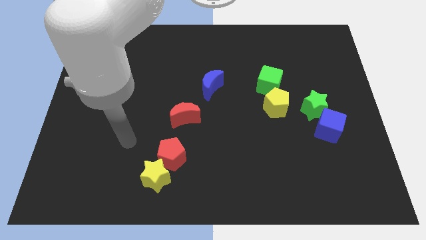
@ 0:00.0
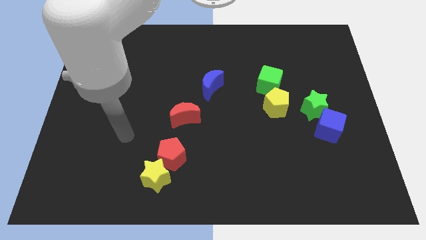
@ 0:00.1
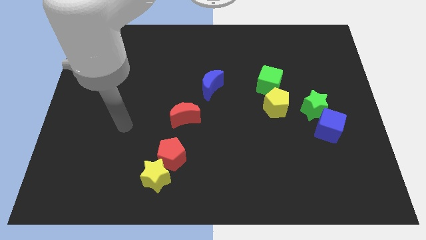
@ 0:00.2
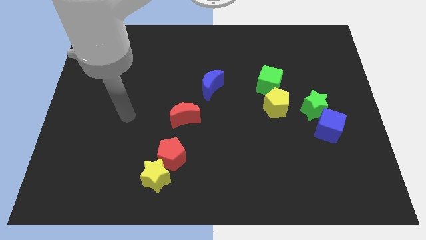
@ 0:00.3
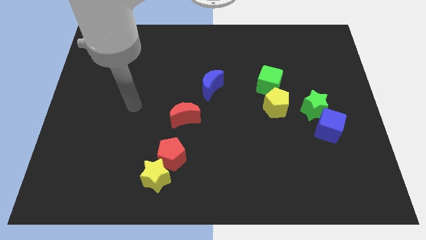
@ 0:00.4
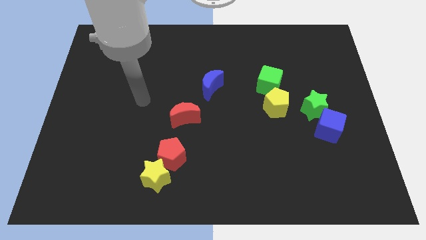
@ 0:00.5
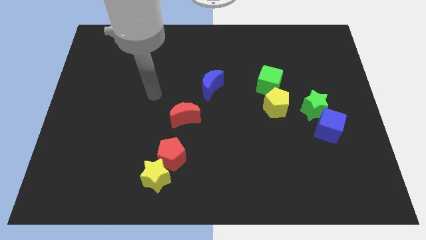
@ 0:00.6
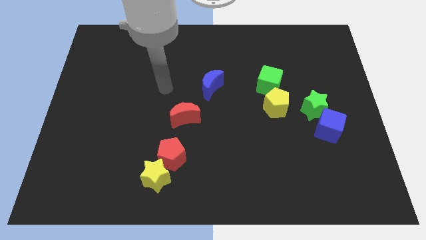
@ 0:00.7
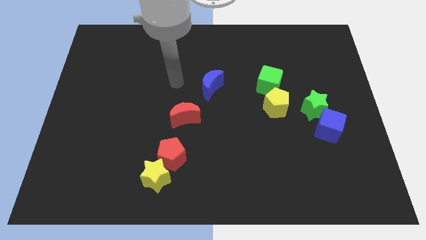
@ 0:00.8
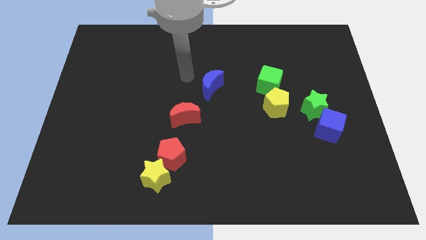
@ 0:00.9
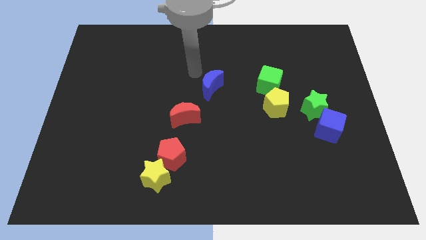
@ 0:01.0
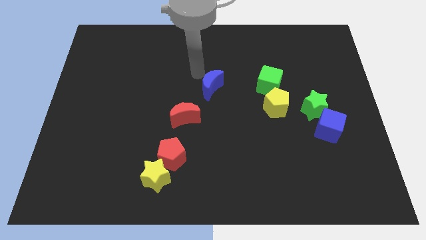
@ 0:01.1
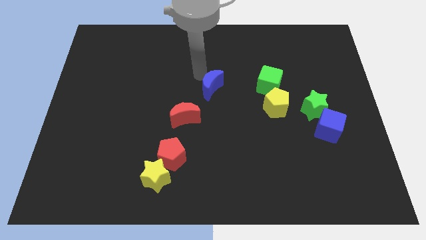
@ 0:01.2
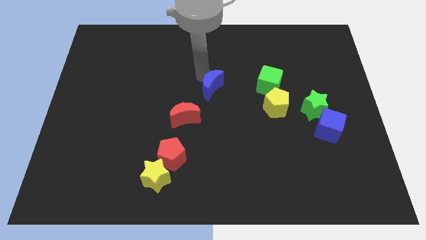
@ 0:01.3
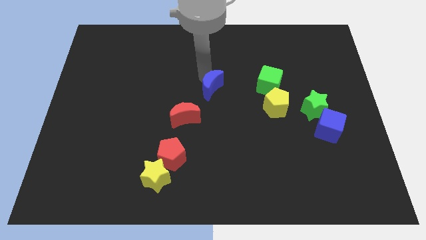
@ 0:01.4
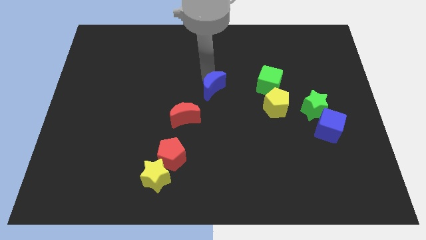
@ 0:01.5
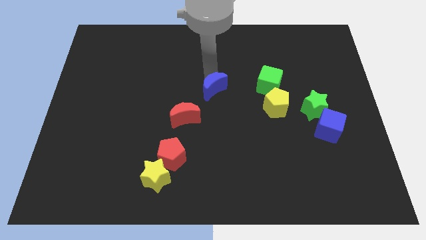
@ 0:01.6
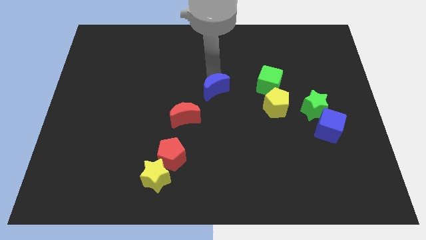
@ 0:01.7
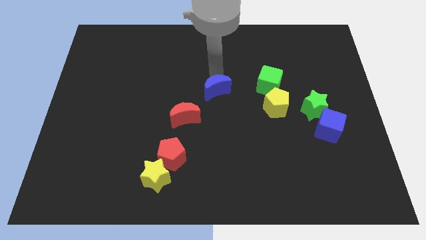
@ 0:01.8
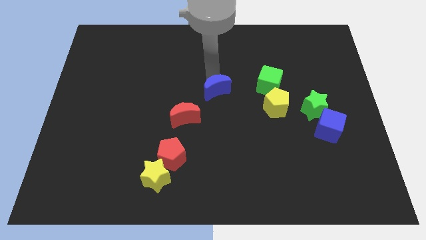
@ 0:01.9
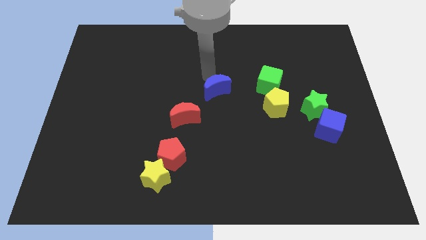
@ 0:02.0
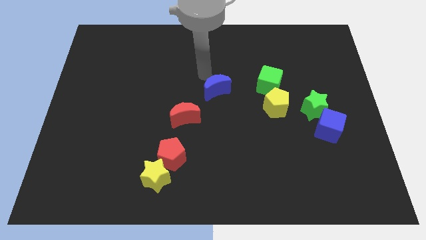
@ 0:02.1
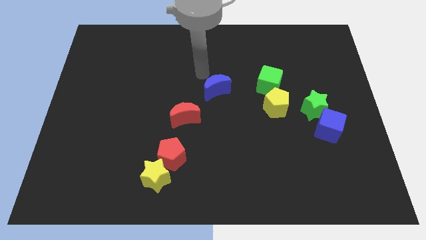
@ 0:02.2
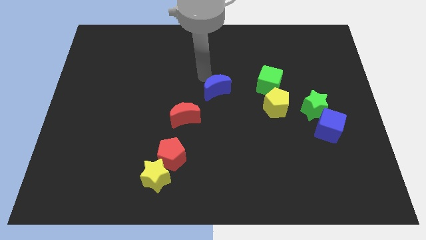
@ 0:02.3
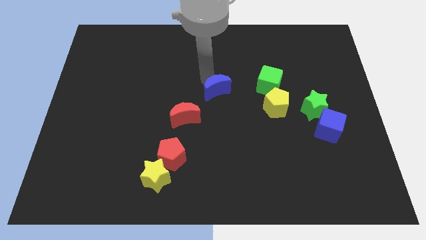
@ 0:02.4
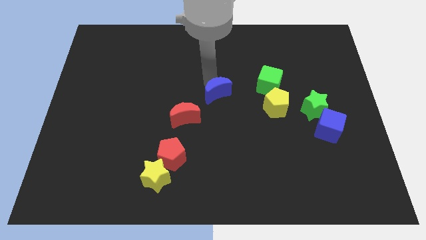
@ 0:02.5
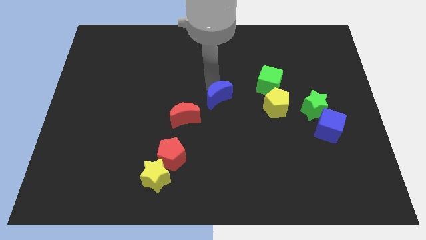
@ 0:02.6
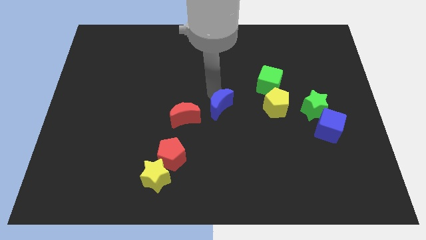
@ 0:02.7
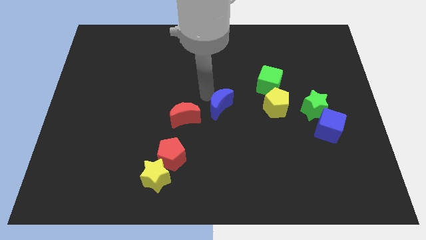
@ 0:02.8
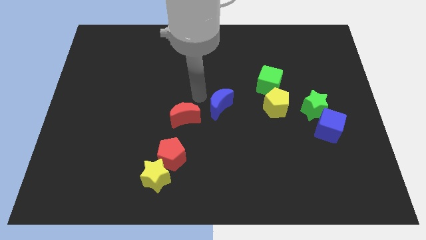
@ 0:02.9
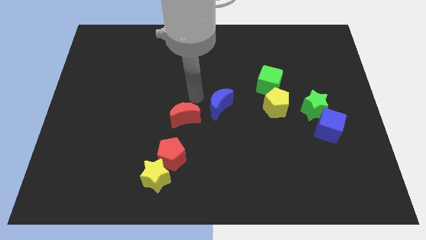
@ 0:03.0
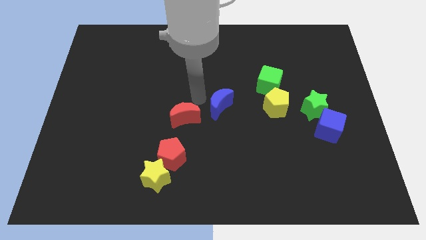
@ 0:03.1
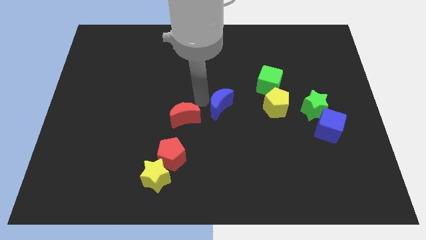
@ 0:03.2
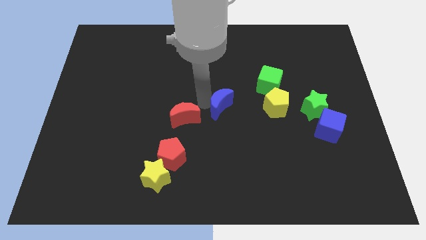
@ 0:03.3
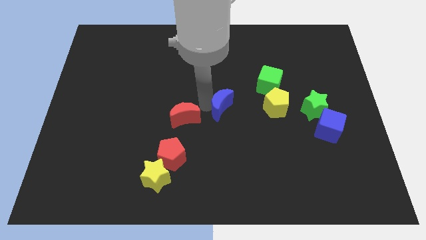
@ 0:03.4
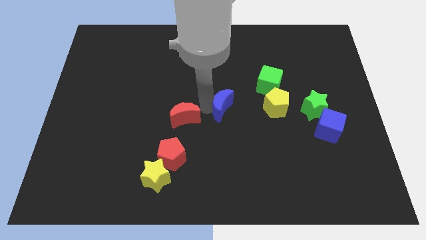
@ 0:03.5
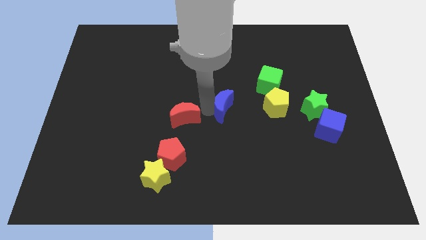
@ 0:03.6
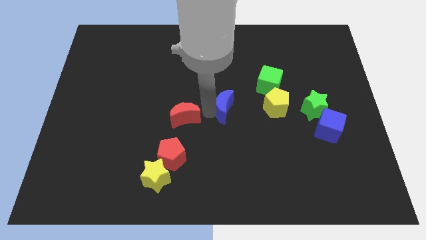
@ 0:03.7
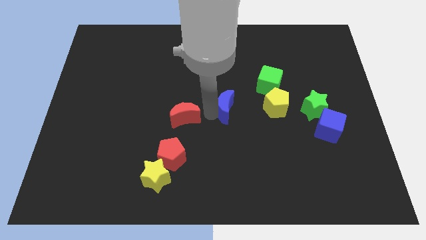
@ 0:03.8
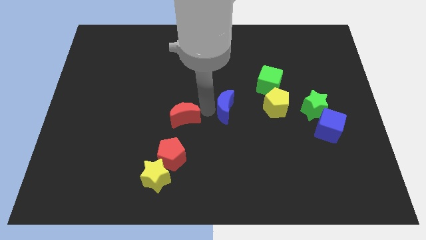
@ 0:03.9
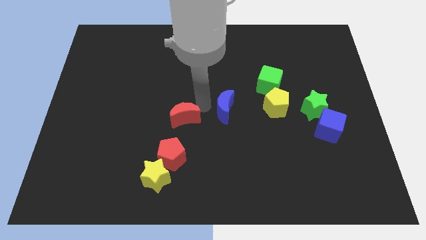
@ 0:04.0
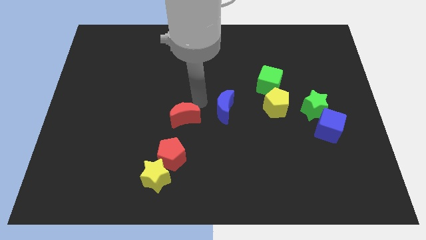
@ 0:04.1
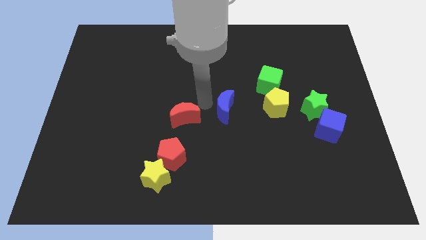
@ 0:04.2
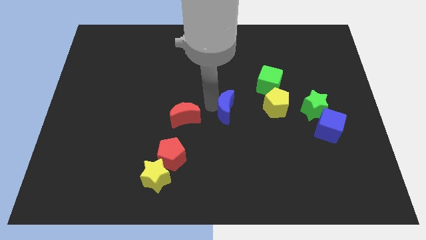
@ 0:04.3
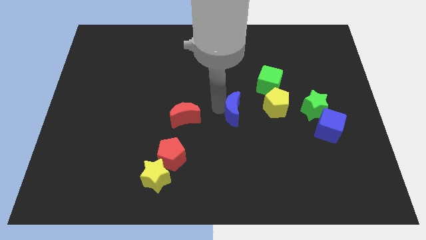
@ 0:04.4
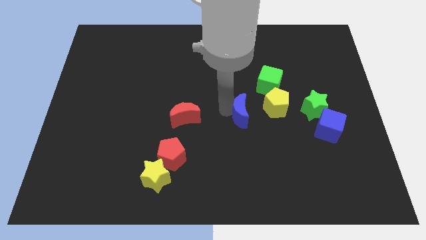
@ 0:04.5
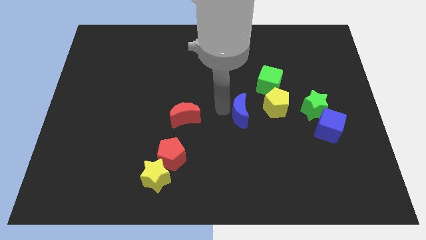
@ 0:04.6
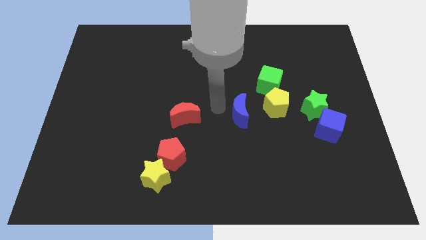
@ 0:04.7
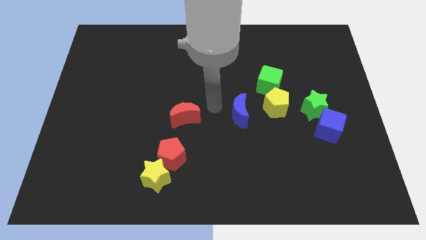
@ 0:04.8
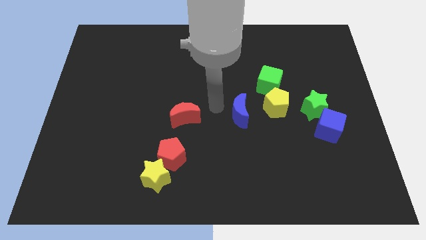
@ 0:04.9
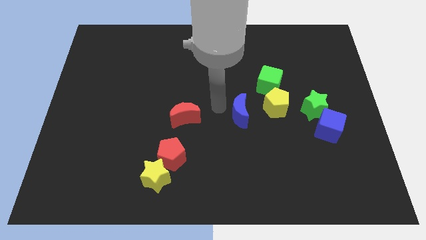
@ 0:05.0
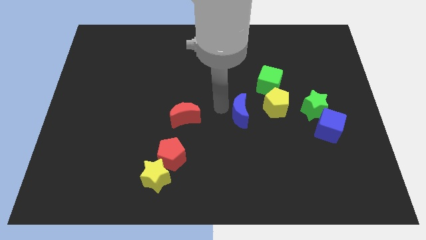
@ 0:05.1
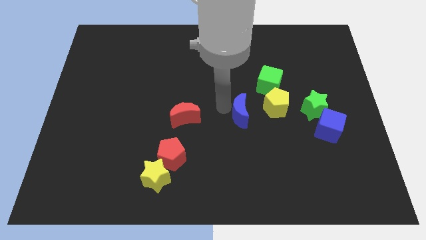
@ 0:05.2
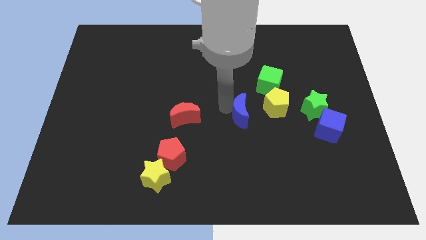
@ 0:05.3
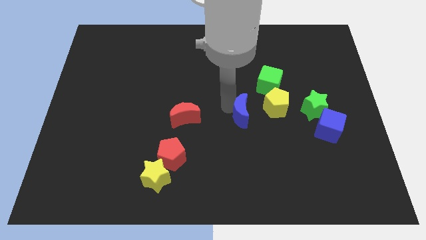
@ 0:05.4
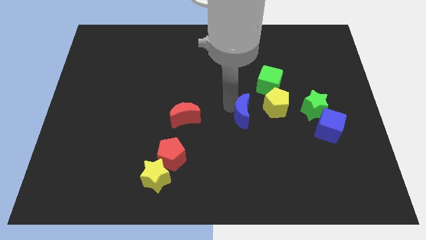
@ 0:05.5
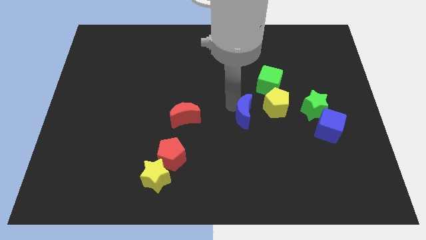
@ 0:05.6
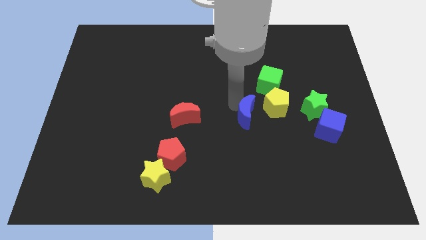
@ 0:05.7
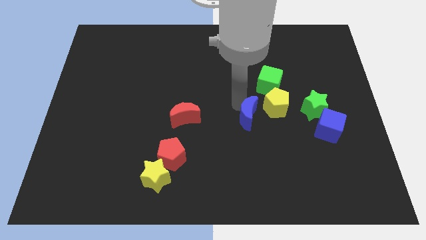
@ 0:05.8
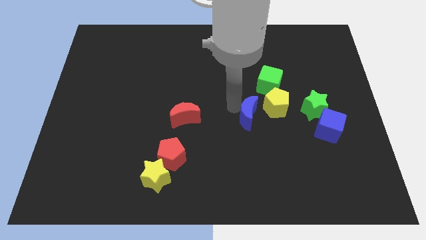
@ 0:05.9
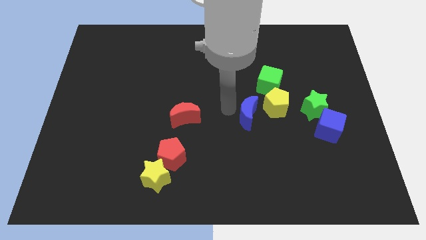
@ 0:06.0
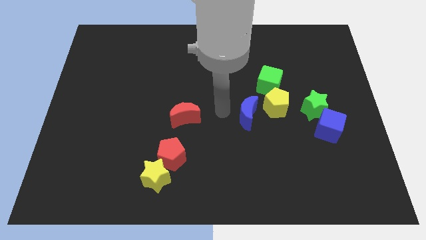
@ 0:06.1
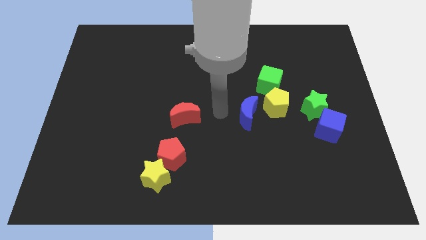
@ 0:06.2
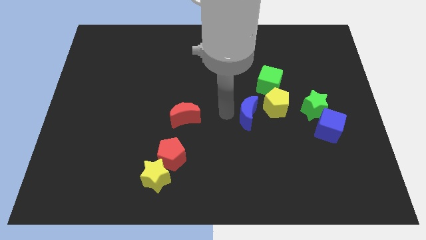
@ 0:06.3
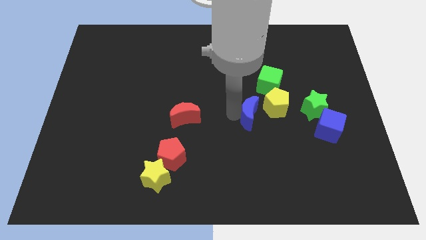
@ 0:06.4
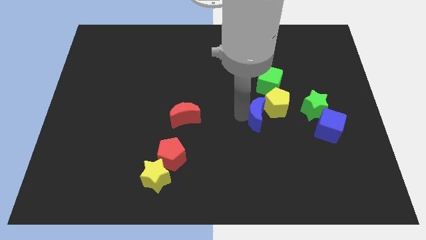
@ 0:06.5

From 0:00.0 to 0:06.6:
push the blue moon below the green cube

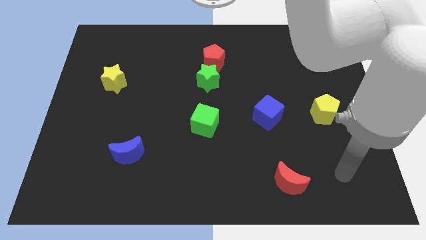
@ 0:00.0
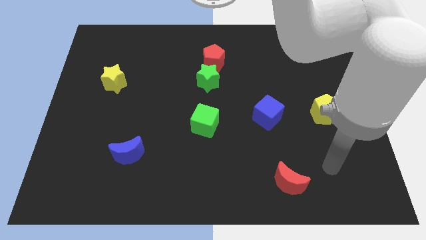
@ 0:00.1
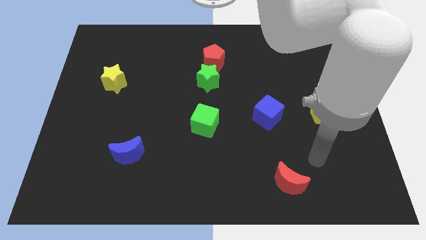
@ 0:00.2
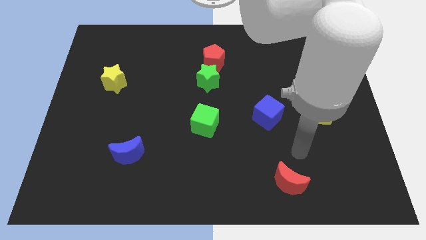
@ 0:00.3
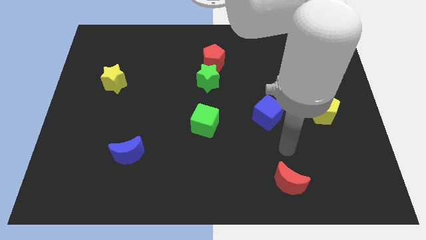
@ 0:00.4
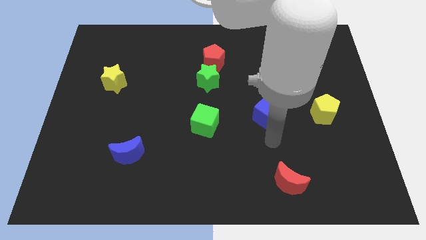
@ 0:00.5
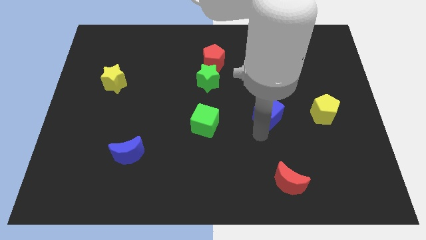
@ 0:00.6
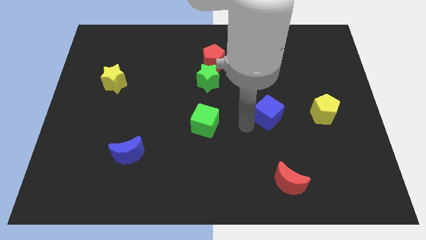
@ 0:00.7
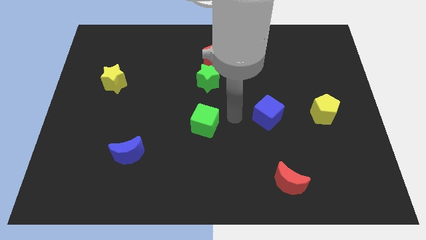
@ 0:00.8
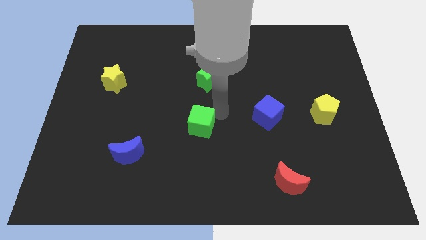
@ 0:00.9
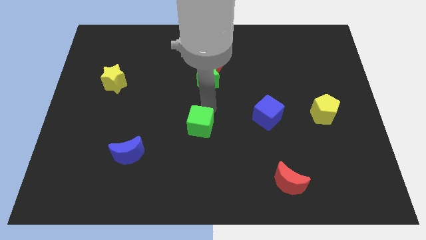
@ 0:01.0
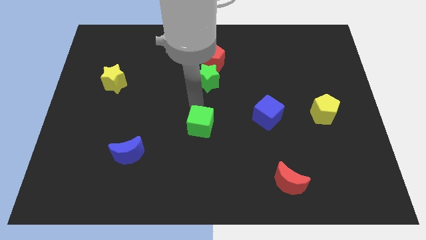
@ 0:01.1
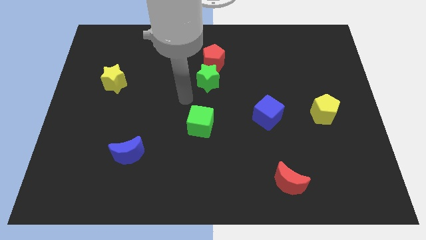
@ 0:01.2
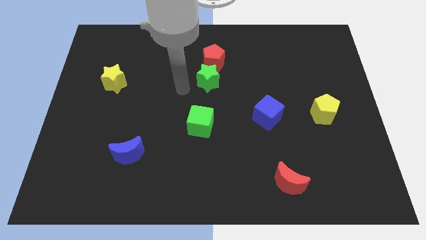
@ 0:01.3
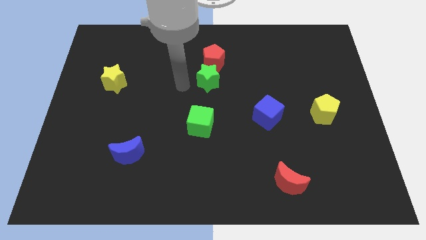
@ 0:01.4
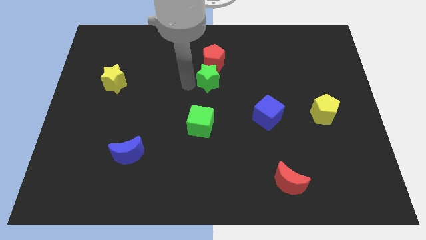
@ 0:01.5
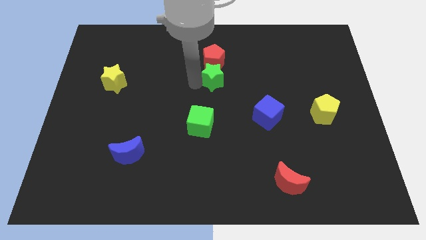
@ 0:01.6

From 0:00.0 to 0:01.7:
move the green star to the bottom right of the red pentagon
